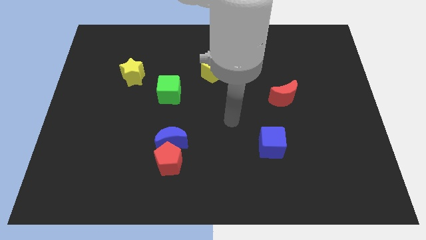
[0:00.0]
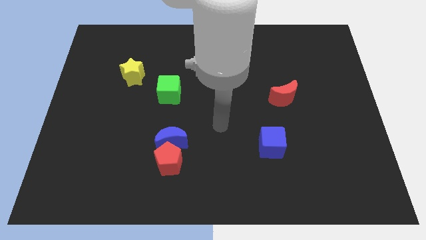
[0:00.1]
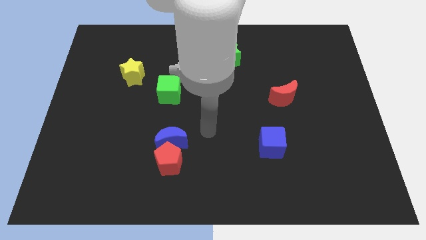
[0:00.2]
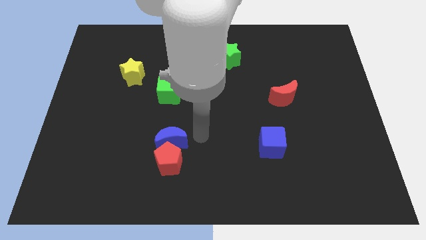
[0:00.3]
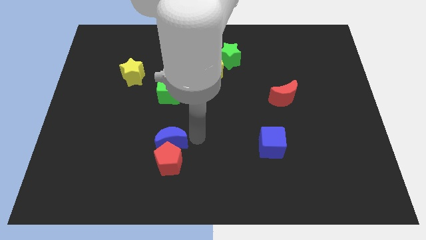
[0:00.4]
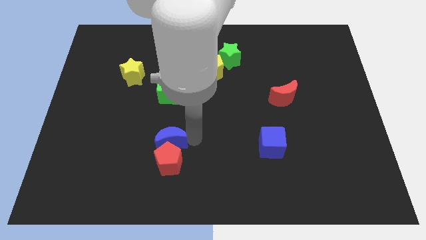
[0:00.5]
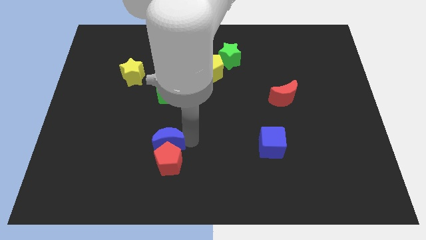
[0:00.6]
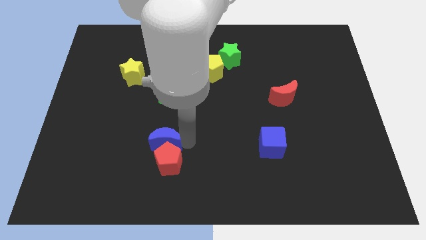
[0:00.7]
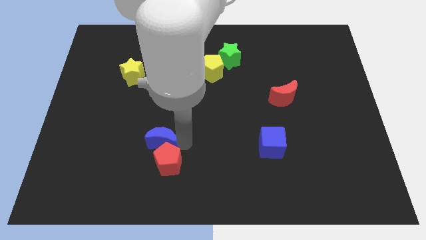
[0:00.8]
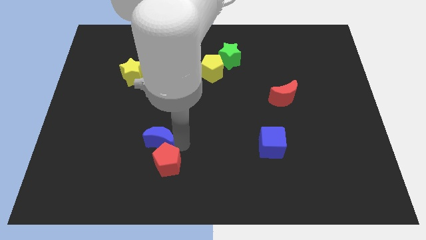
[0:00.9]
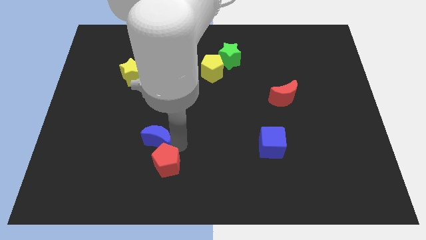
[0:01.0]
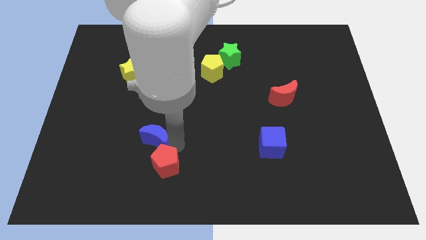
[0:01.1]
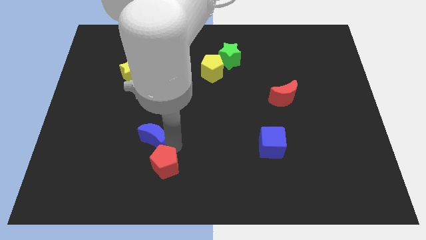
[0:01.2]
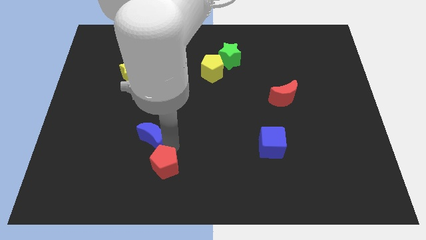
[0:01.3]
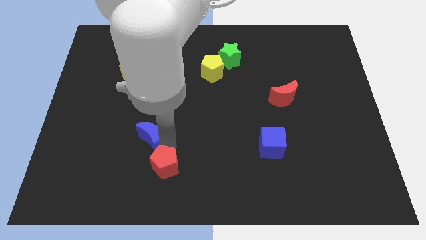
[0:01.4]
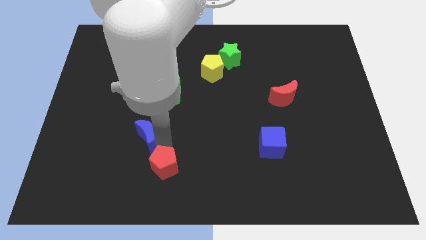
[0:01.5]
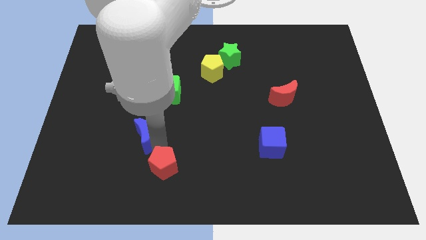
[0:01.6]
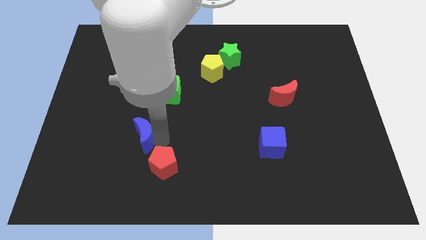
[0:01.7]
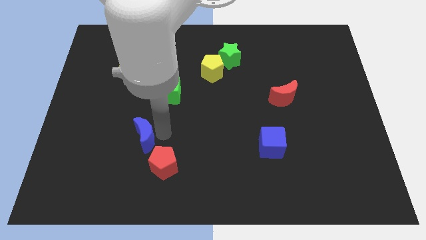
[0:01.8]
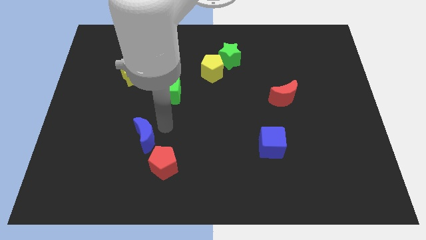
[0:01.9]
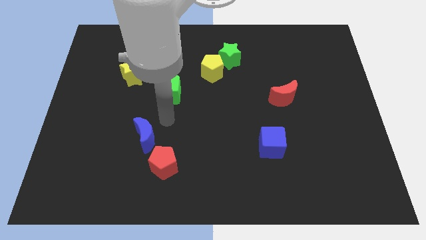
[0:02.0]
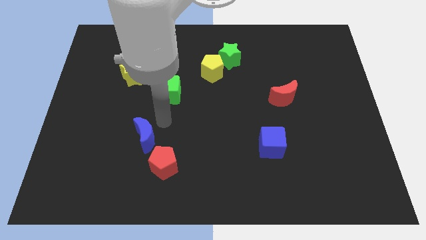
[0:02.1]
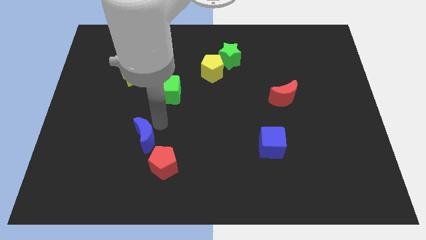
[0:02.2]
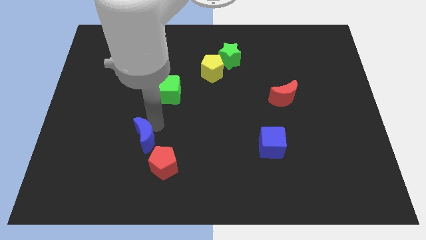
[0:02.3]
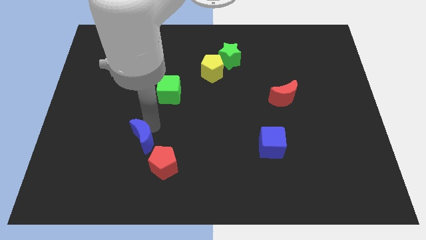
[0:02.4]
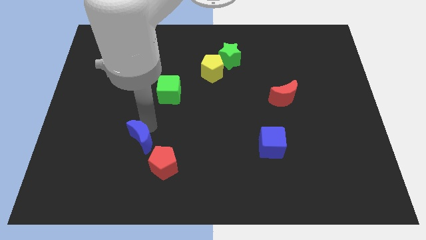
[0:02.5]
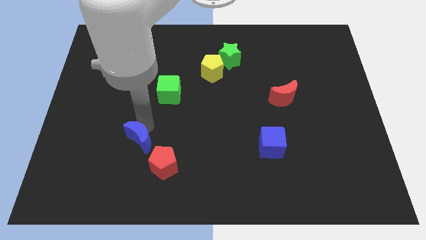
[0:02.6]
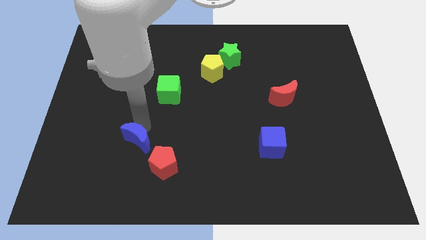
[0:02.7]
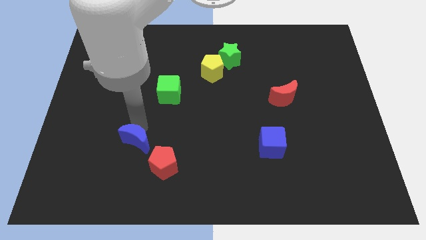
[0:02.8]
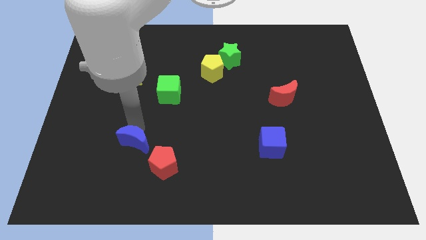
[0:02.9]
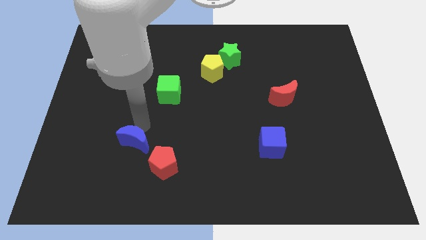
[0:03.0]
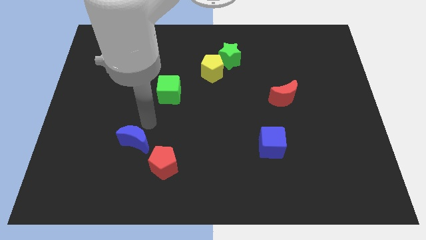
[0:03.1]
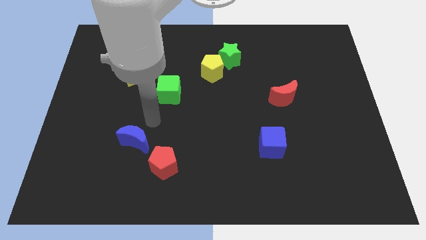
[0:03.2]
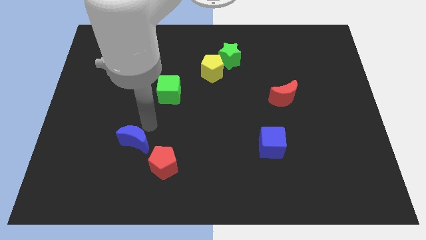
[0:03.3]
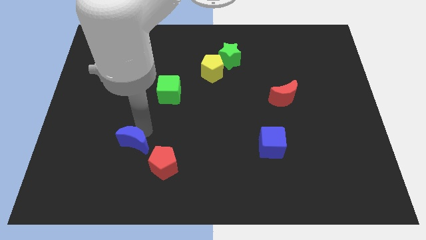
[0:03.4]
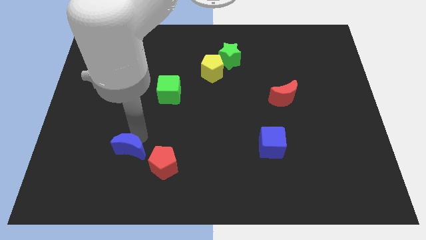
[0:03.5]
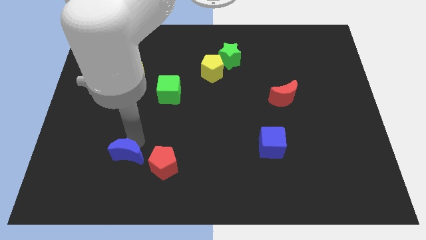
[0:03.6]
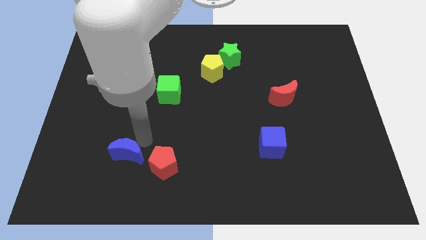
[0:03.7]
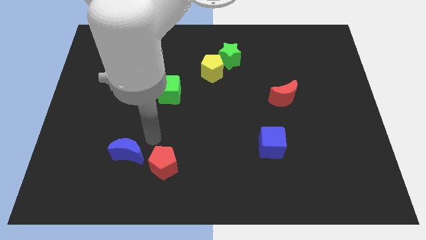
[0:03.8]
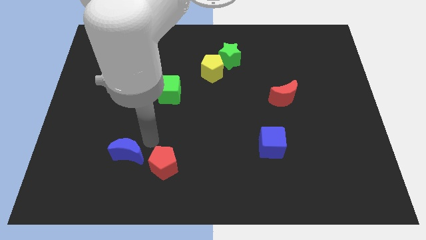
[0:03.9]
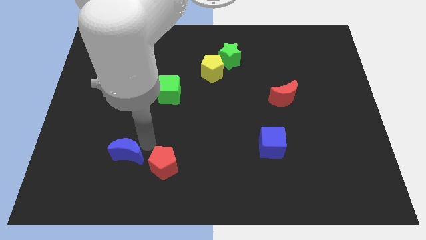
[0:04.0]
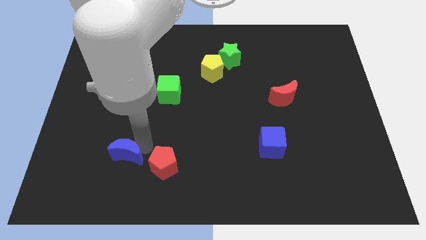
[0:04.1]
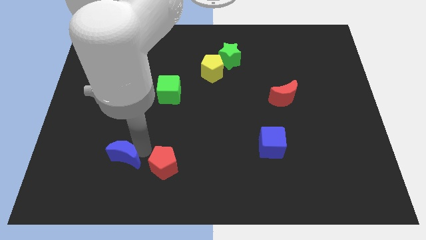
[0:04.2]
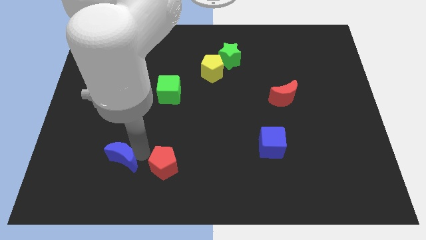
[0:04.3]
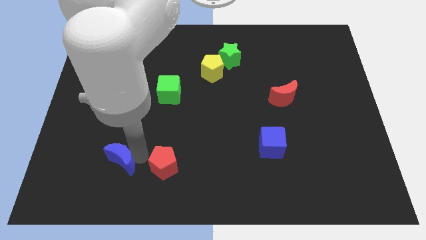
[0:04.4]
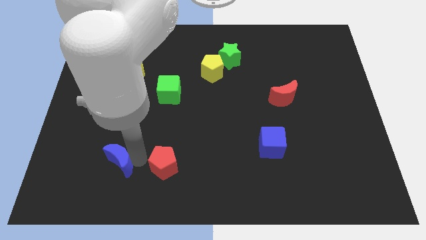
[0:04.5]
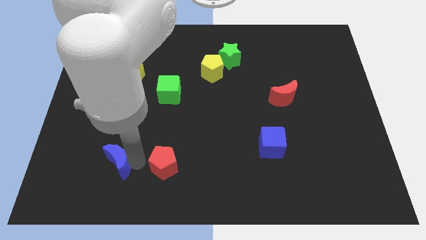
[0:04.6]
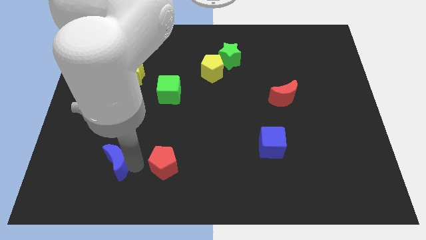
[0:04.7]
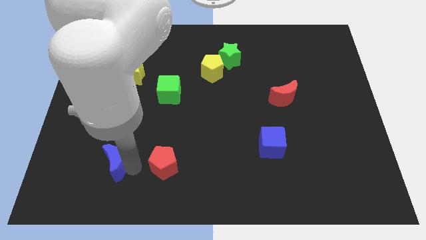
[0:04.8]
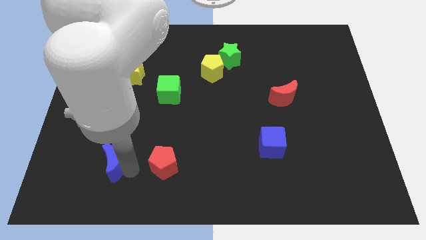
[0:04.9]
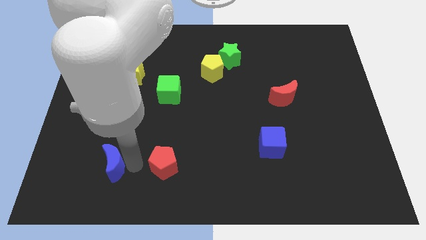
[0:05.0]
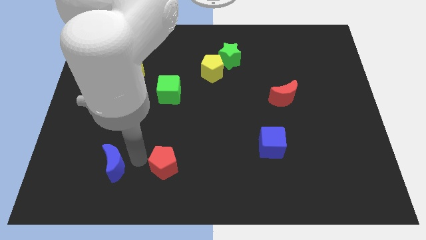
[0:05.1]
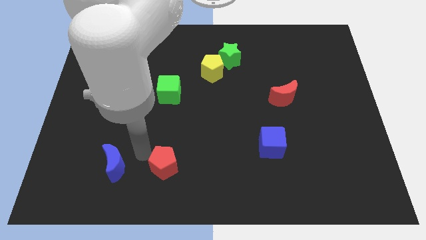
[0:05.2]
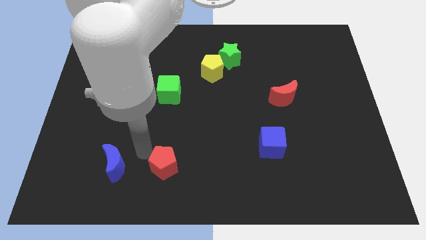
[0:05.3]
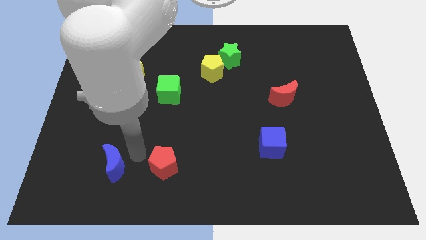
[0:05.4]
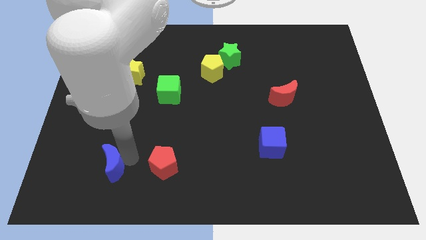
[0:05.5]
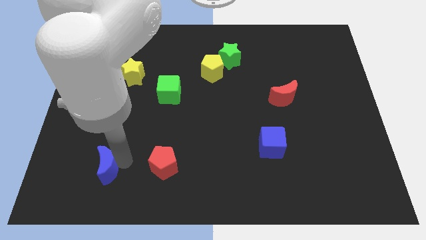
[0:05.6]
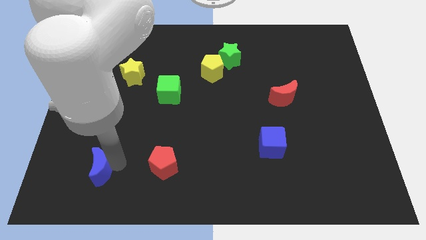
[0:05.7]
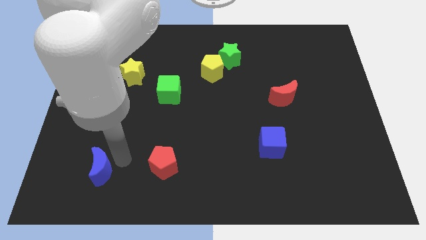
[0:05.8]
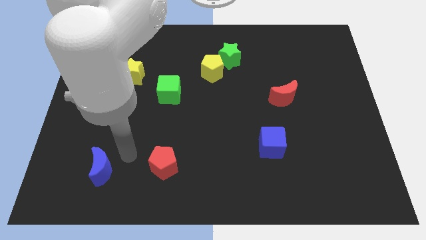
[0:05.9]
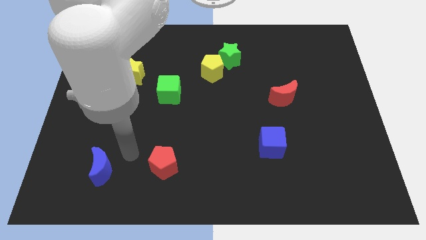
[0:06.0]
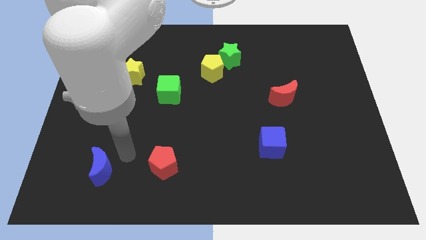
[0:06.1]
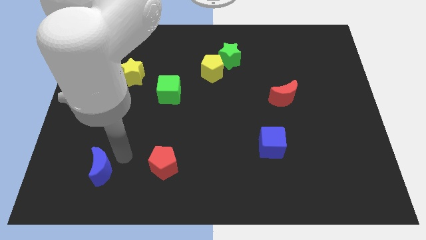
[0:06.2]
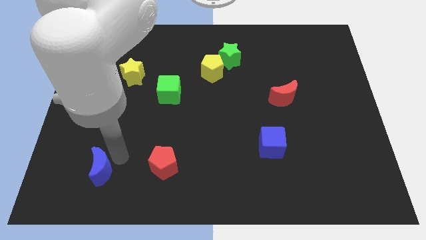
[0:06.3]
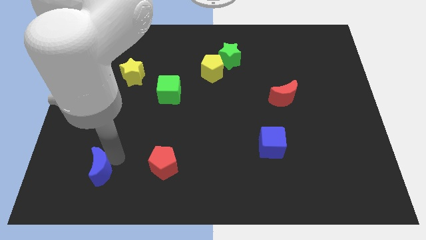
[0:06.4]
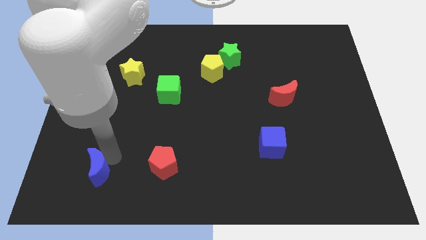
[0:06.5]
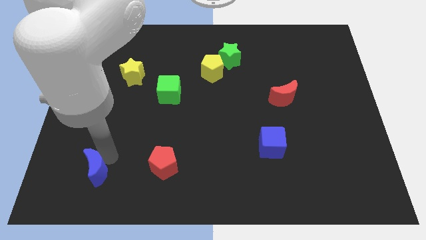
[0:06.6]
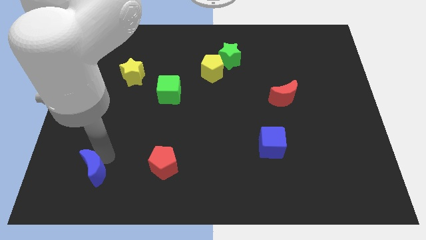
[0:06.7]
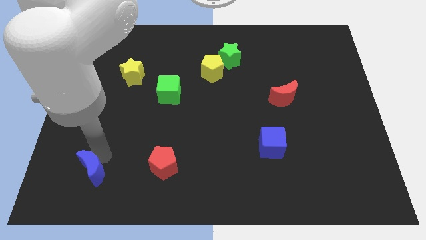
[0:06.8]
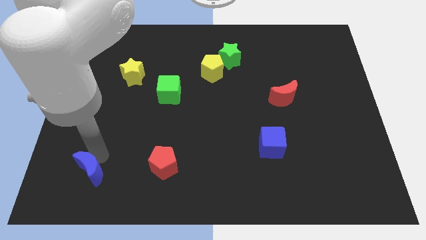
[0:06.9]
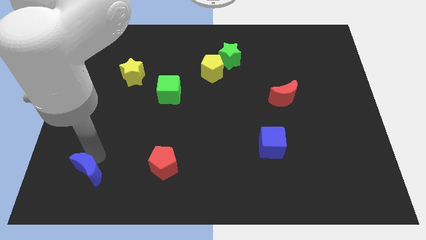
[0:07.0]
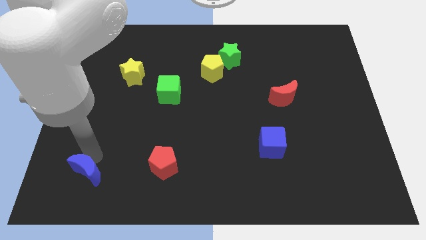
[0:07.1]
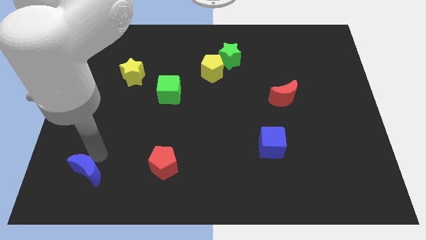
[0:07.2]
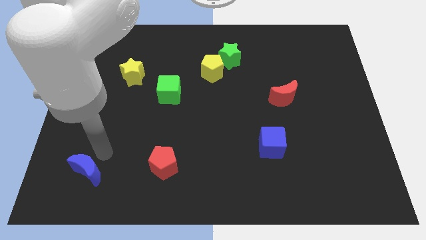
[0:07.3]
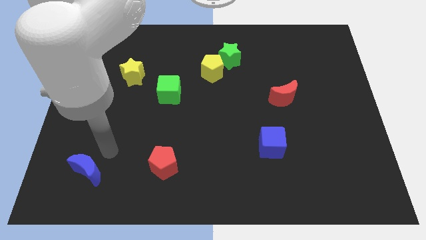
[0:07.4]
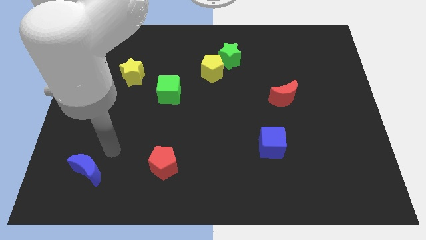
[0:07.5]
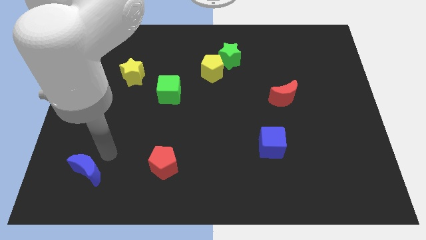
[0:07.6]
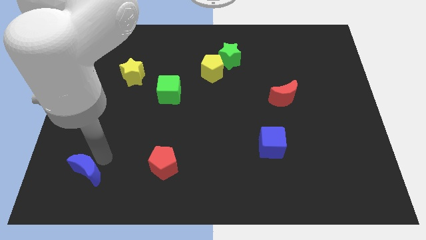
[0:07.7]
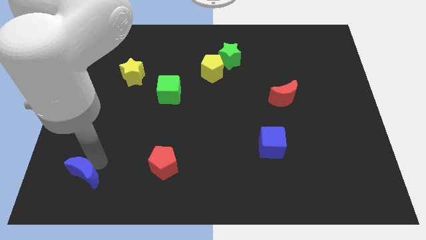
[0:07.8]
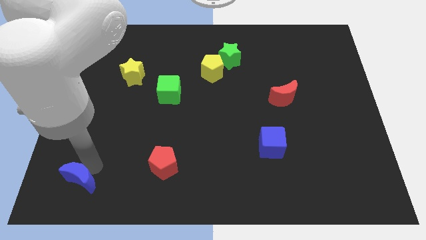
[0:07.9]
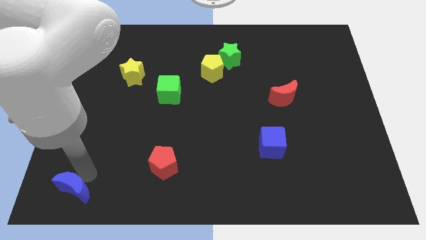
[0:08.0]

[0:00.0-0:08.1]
push the blue moon to the bottom left corner
